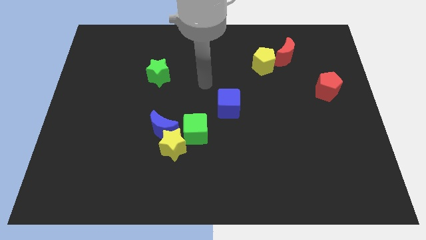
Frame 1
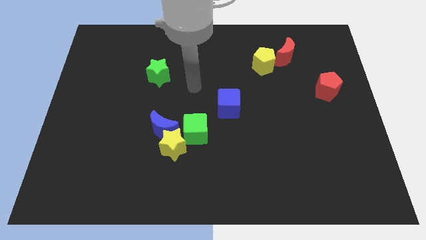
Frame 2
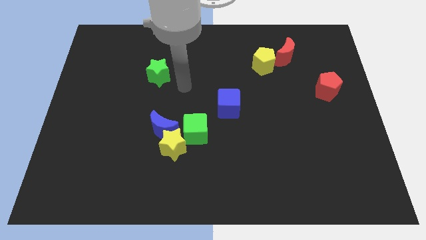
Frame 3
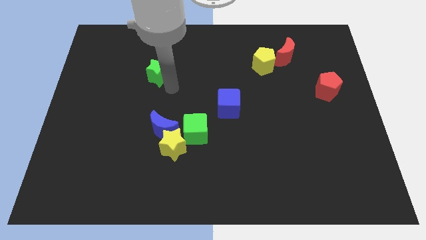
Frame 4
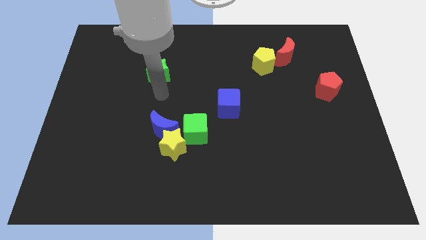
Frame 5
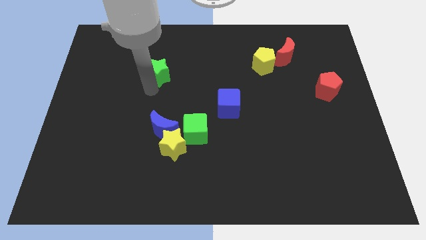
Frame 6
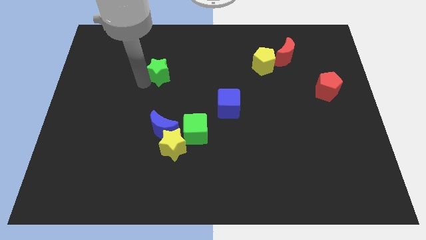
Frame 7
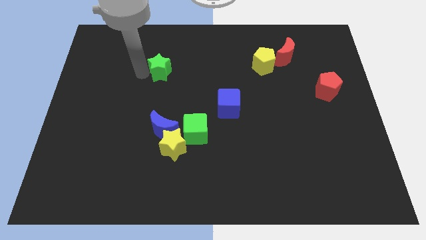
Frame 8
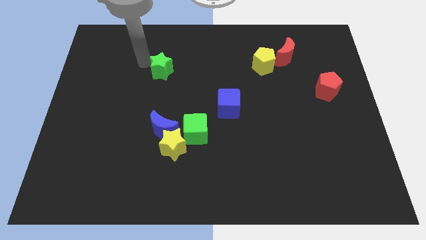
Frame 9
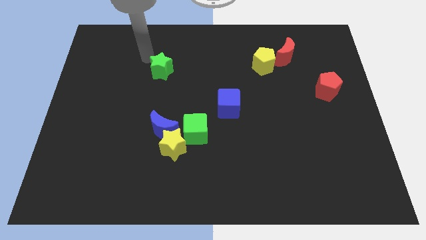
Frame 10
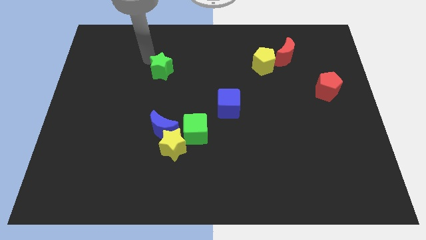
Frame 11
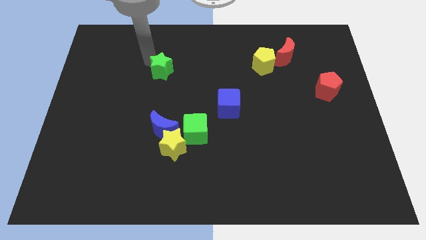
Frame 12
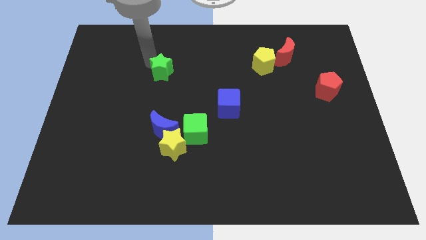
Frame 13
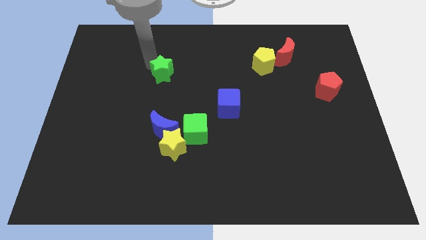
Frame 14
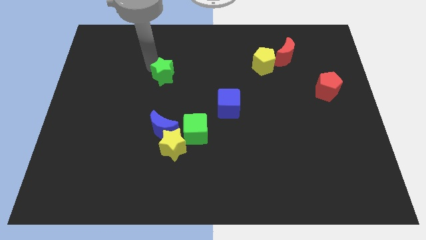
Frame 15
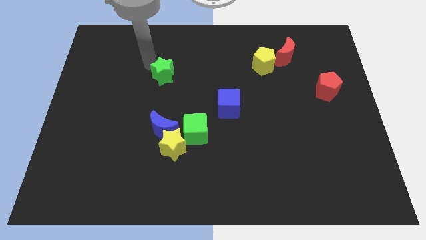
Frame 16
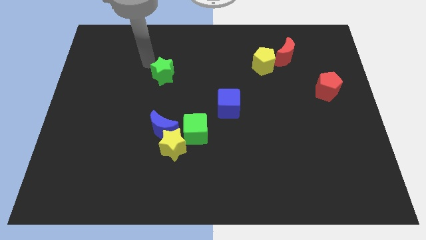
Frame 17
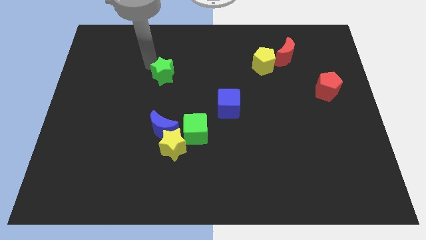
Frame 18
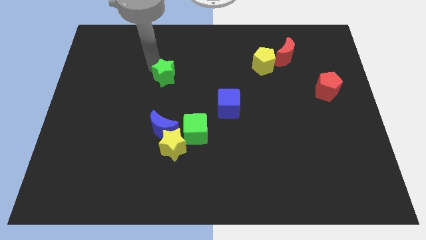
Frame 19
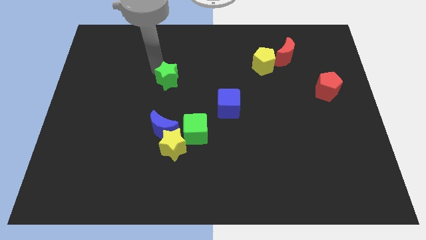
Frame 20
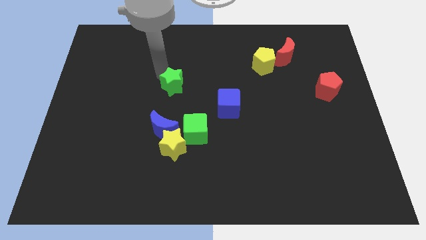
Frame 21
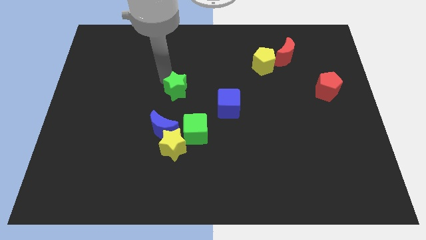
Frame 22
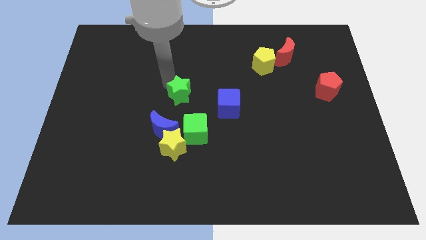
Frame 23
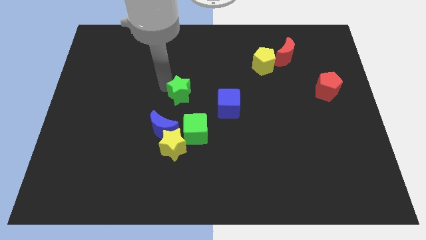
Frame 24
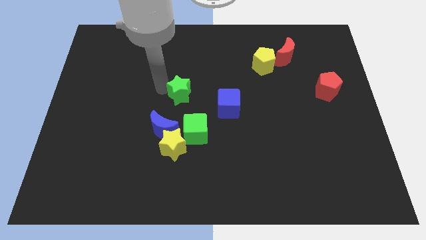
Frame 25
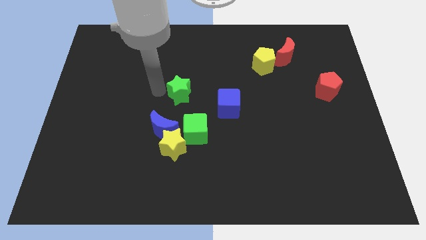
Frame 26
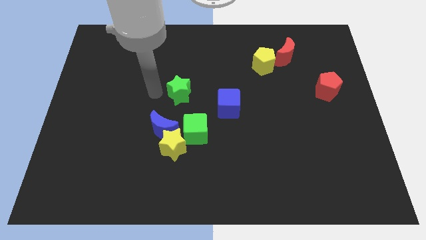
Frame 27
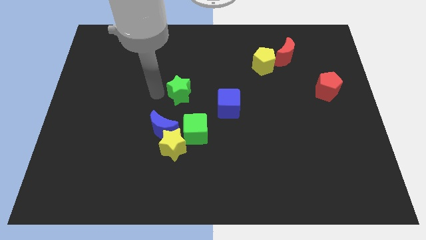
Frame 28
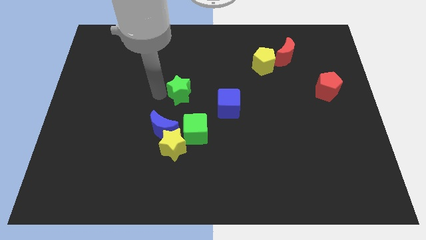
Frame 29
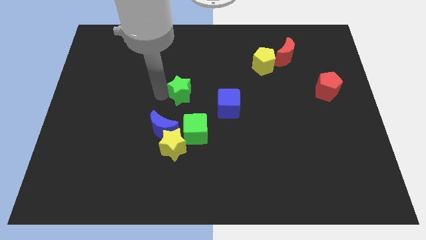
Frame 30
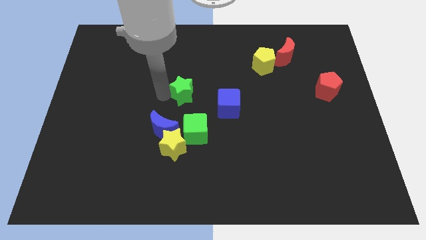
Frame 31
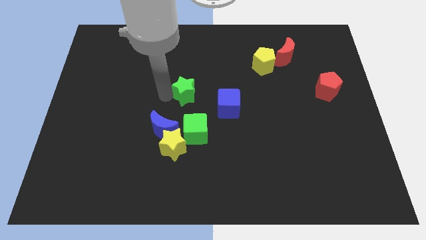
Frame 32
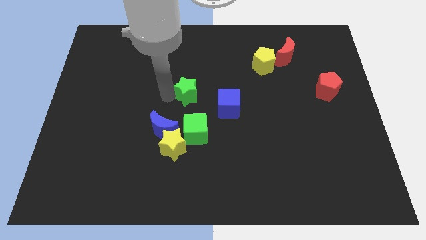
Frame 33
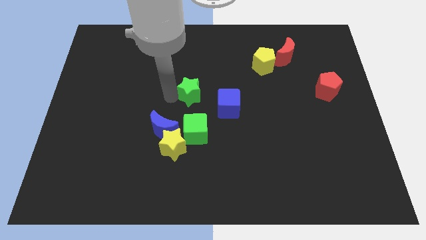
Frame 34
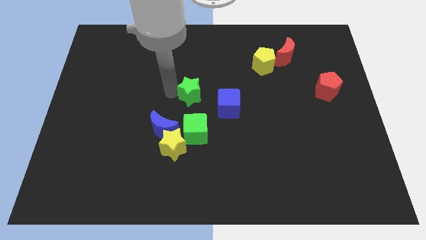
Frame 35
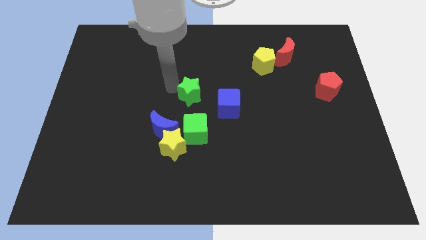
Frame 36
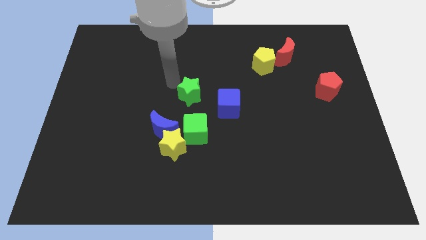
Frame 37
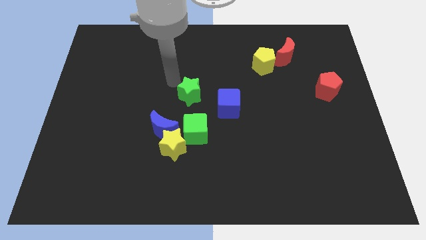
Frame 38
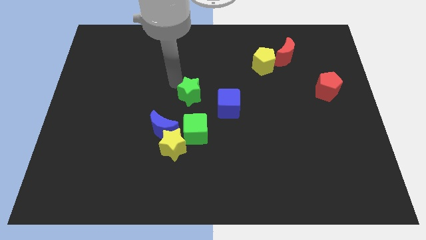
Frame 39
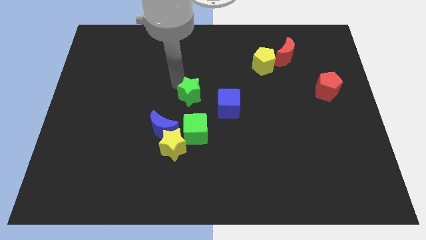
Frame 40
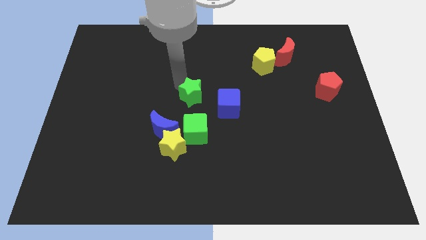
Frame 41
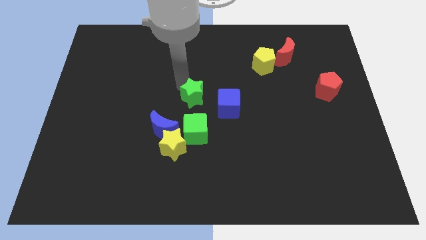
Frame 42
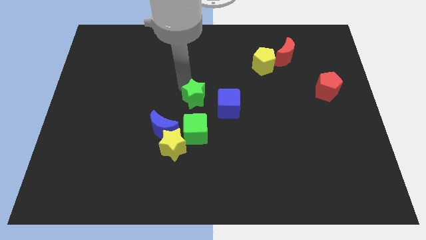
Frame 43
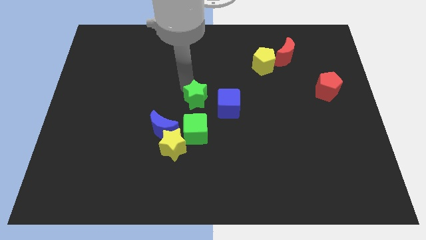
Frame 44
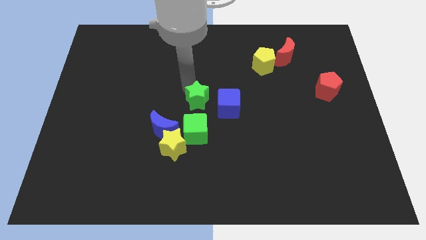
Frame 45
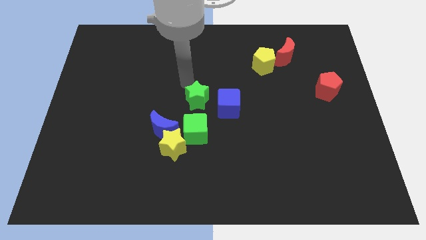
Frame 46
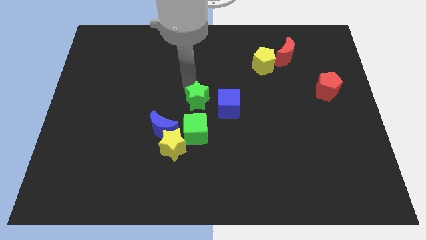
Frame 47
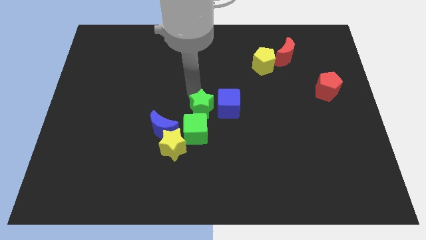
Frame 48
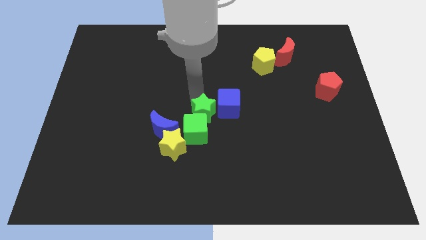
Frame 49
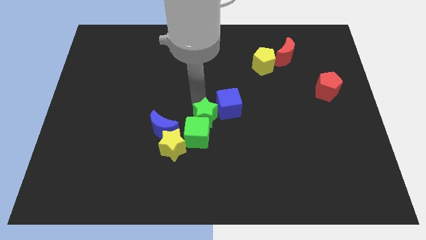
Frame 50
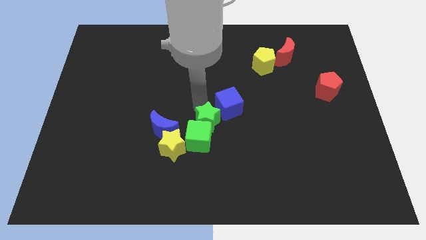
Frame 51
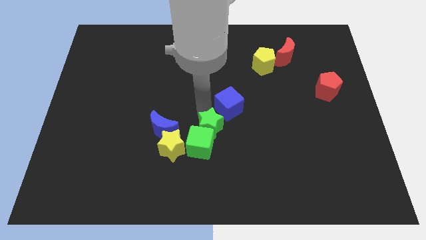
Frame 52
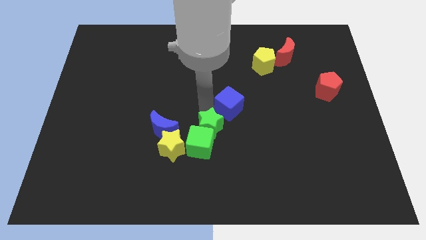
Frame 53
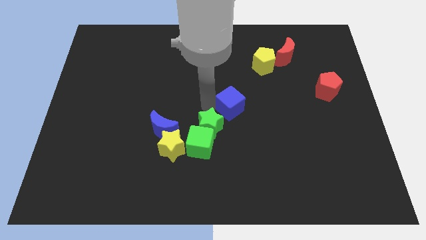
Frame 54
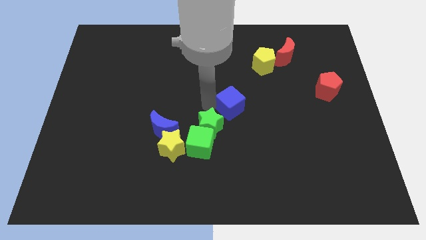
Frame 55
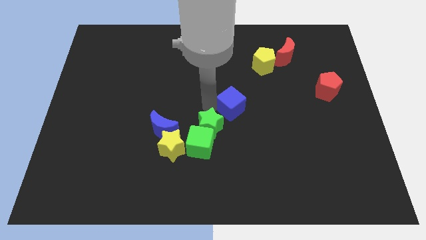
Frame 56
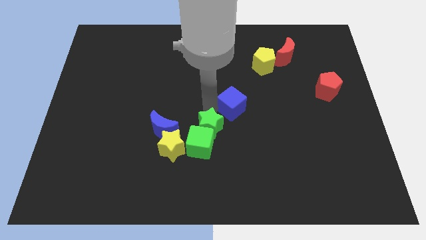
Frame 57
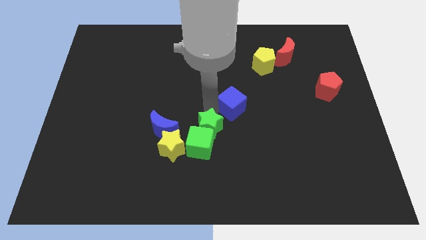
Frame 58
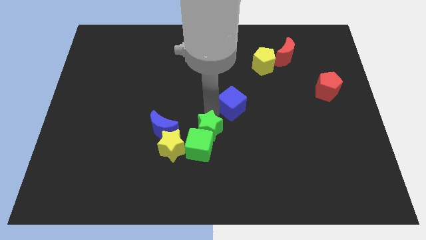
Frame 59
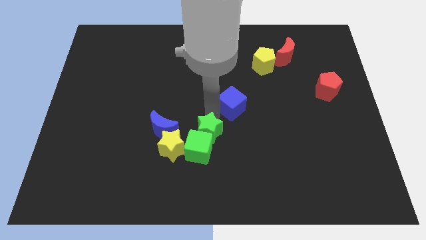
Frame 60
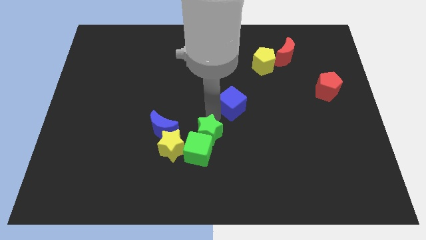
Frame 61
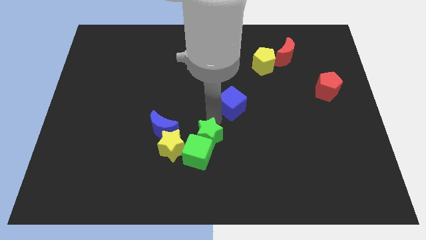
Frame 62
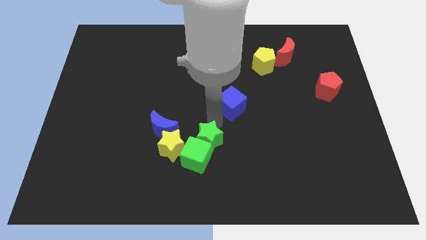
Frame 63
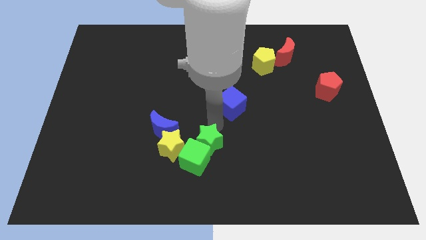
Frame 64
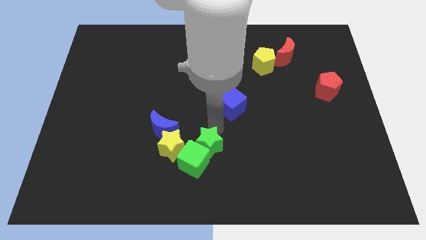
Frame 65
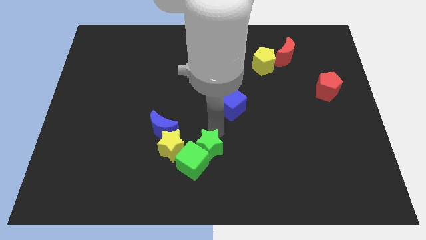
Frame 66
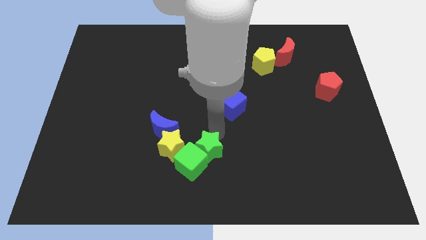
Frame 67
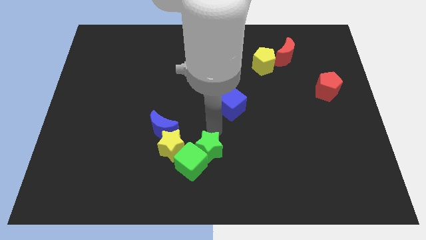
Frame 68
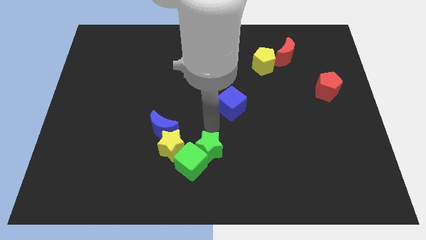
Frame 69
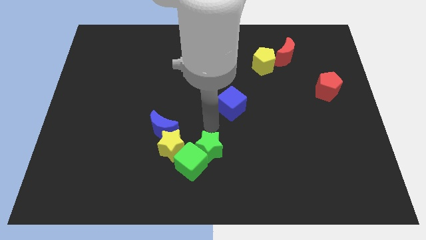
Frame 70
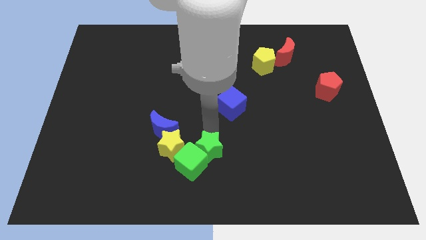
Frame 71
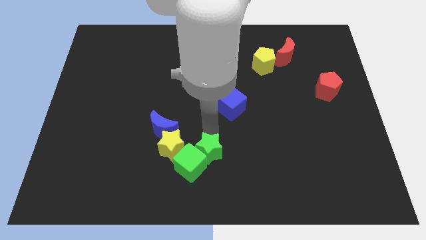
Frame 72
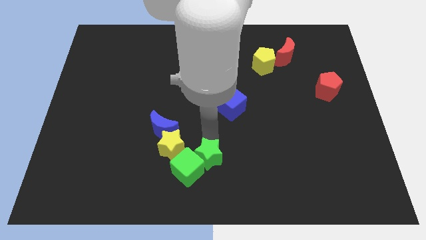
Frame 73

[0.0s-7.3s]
push the green star to the bottom

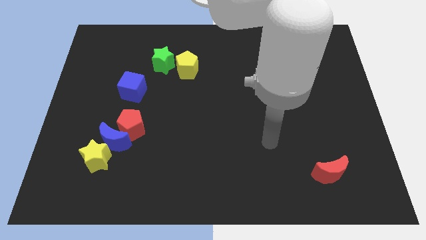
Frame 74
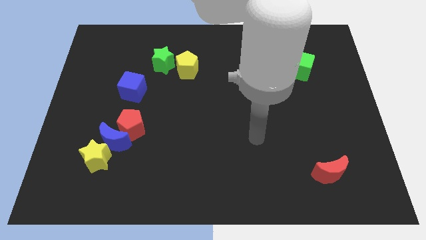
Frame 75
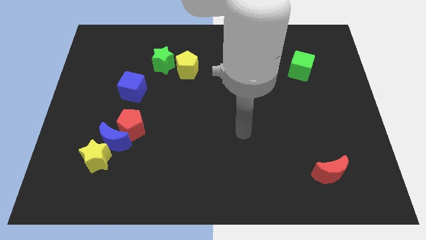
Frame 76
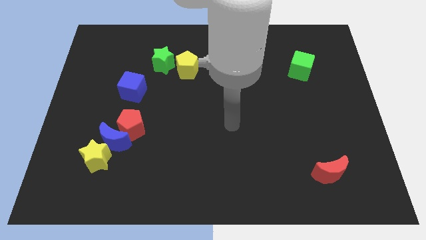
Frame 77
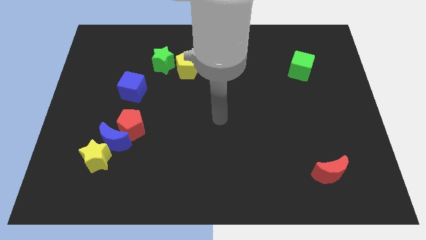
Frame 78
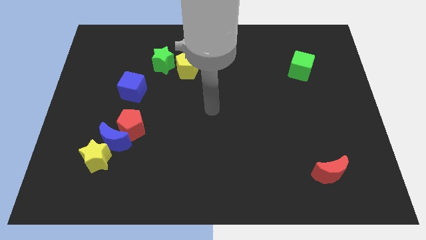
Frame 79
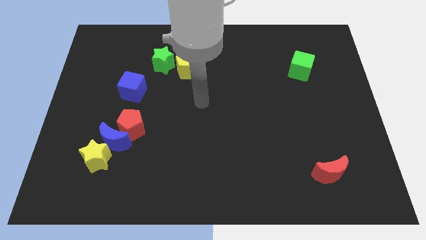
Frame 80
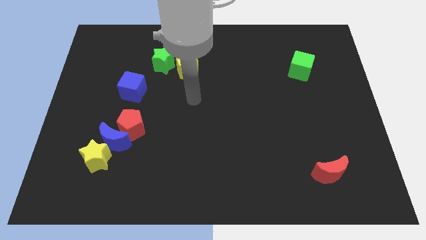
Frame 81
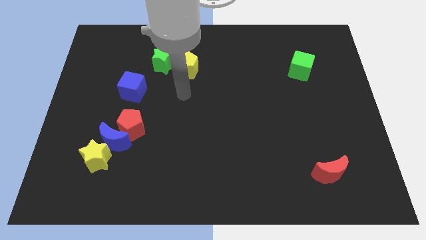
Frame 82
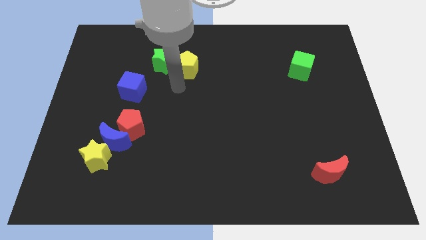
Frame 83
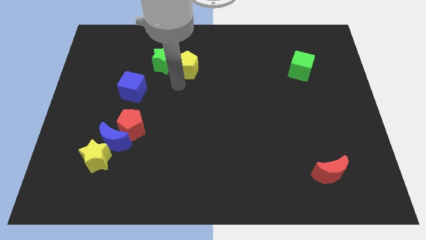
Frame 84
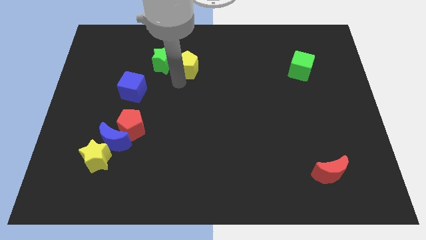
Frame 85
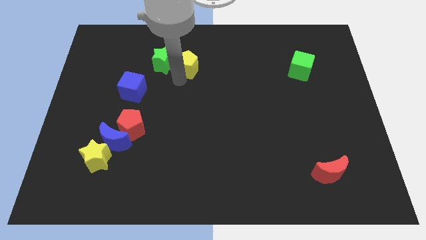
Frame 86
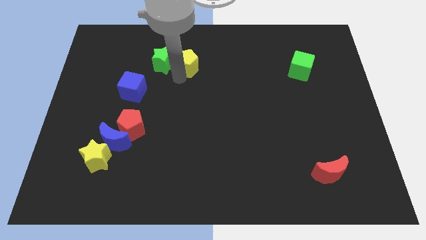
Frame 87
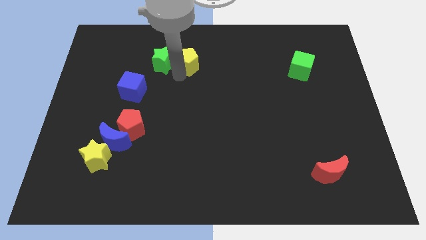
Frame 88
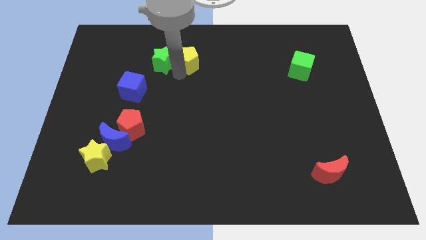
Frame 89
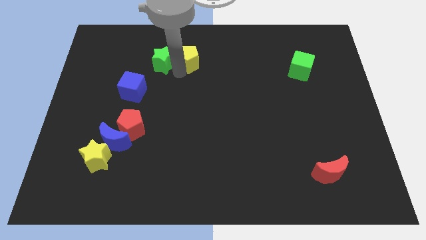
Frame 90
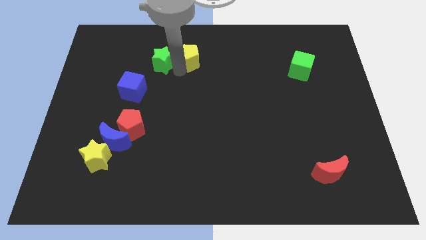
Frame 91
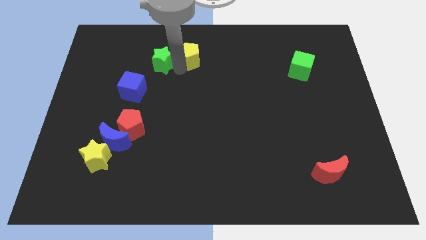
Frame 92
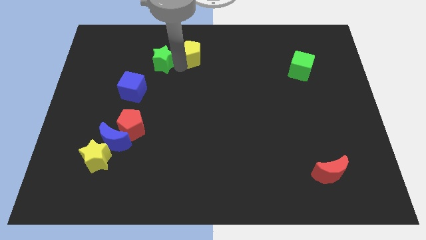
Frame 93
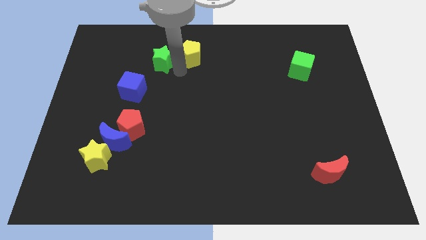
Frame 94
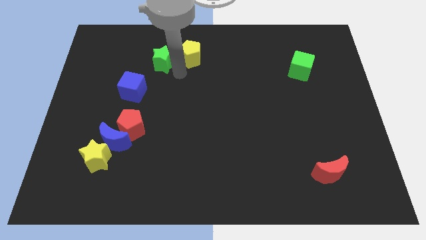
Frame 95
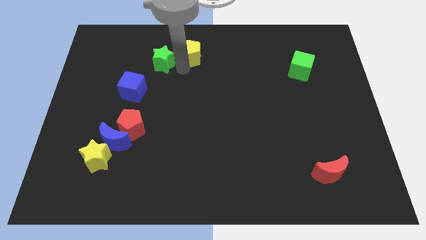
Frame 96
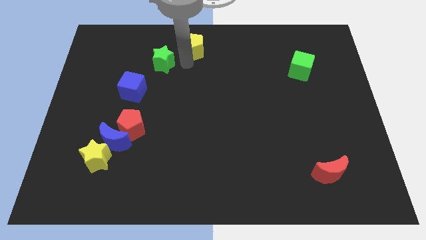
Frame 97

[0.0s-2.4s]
put the yellow pentagon to the towards your base
